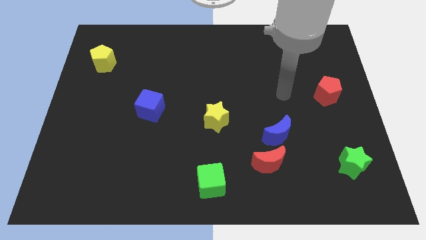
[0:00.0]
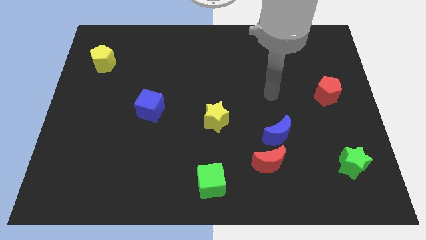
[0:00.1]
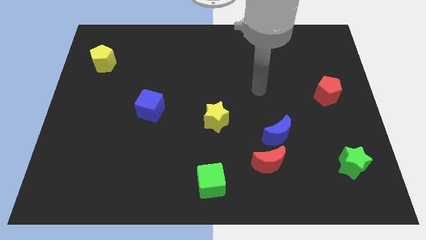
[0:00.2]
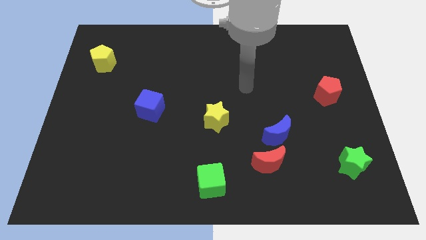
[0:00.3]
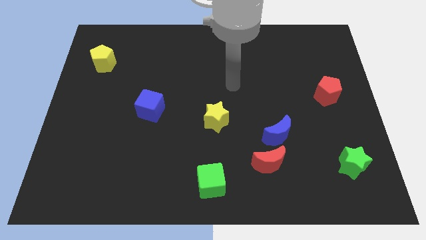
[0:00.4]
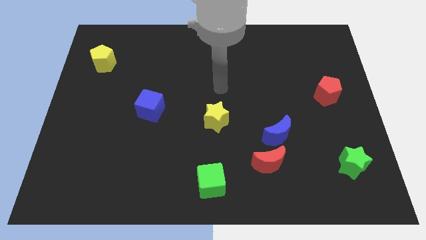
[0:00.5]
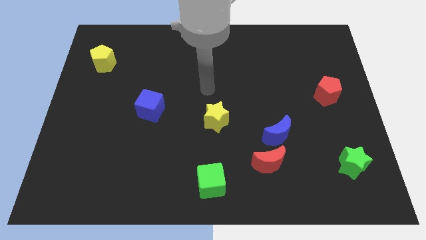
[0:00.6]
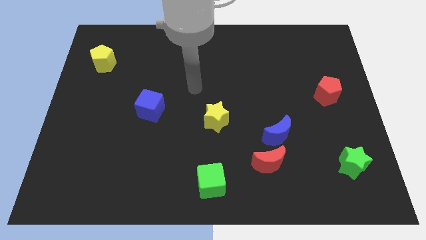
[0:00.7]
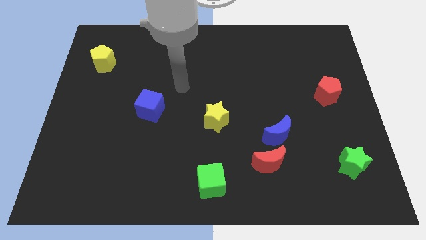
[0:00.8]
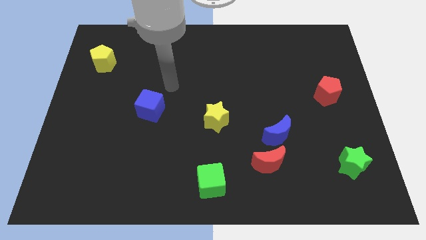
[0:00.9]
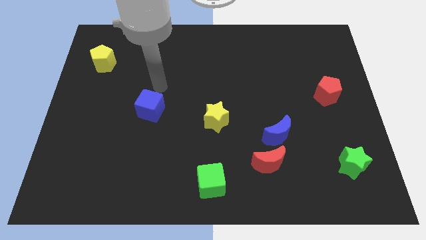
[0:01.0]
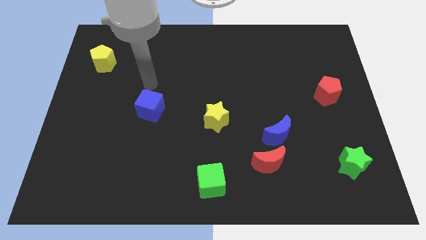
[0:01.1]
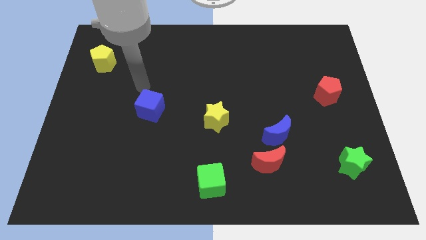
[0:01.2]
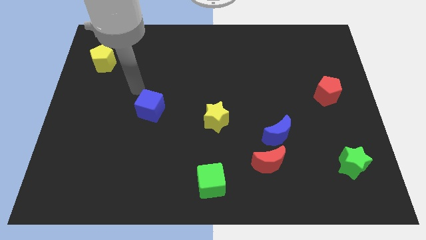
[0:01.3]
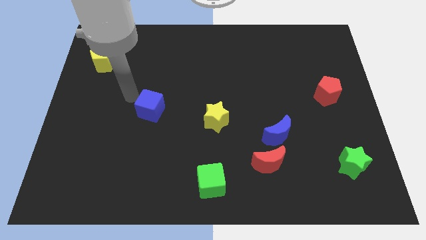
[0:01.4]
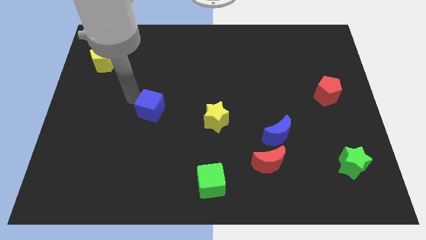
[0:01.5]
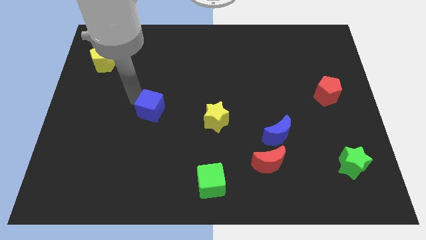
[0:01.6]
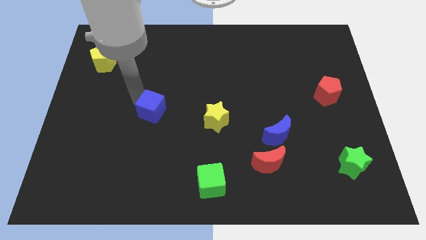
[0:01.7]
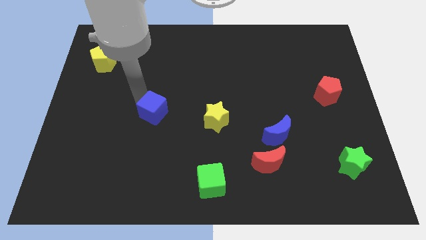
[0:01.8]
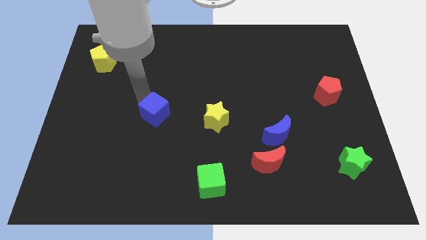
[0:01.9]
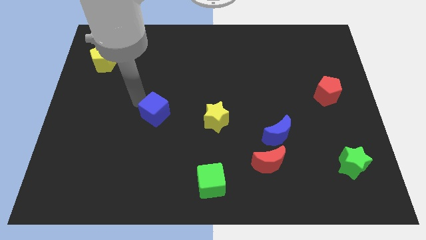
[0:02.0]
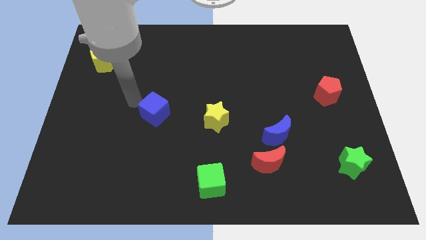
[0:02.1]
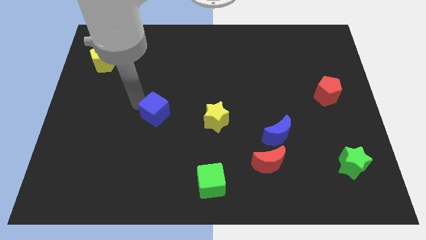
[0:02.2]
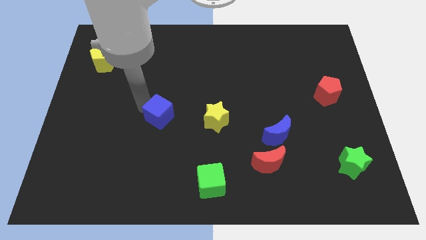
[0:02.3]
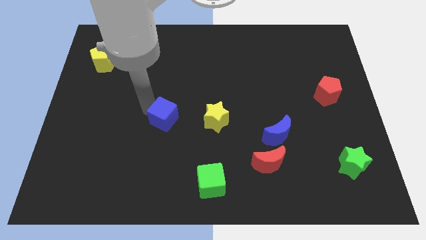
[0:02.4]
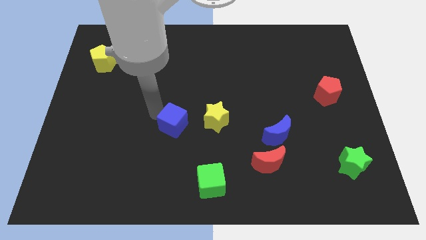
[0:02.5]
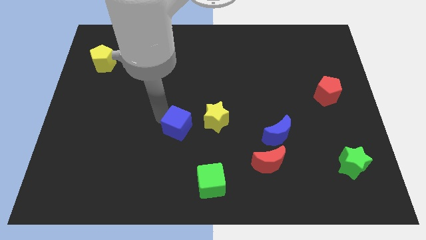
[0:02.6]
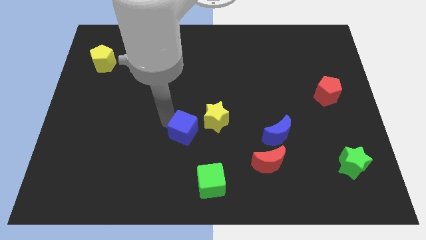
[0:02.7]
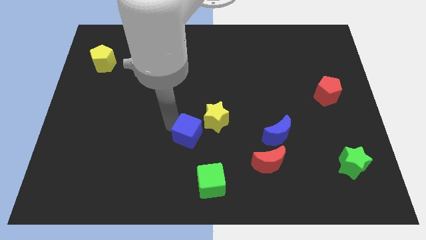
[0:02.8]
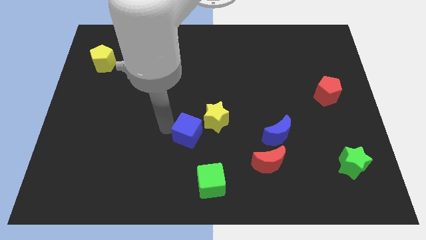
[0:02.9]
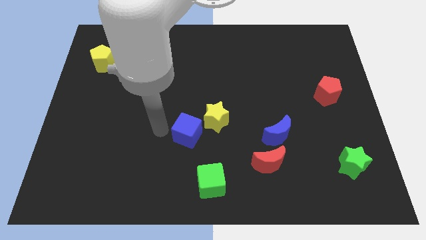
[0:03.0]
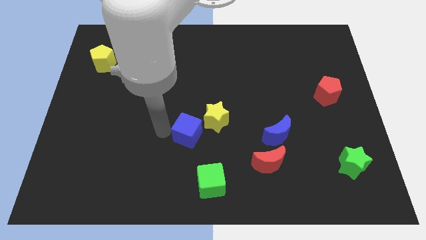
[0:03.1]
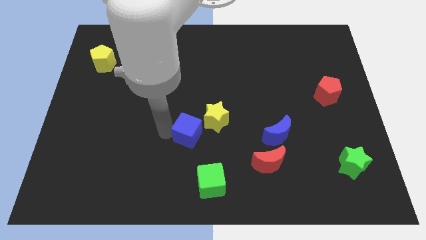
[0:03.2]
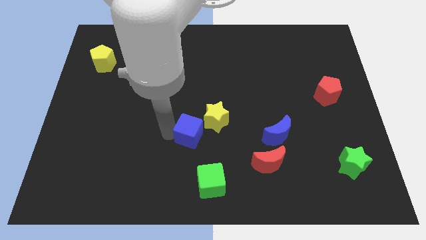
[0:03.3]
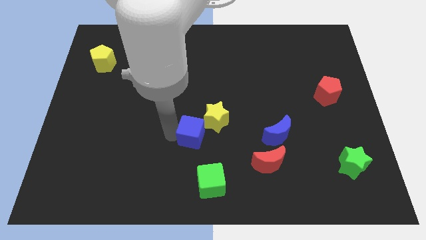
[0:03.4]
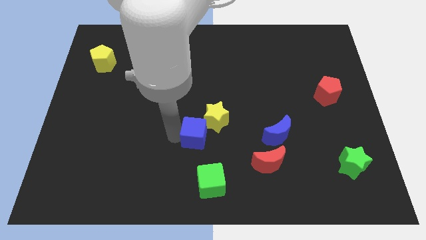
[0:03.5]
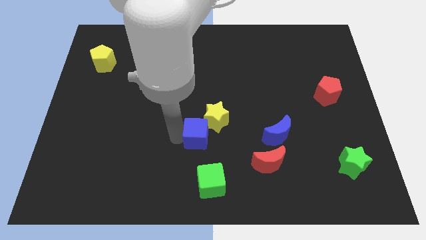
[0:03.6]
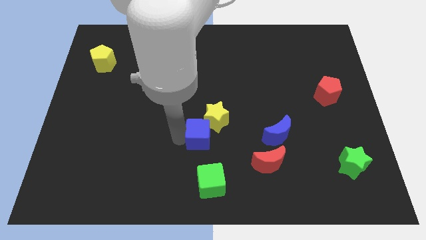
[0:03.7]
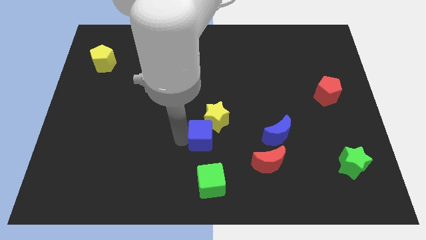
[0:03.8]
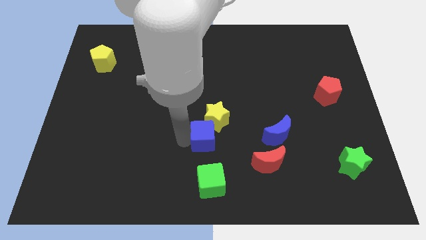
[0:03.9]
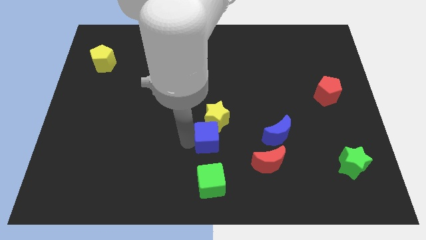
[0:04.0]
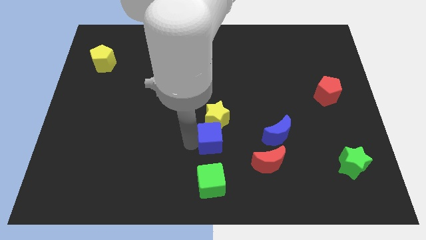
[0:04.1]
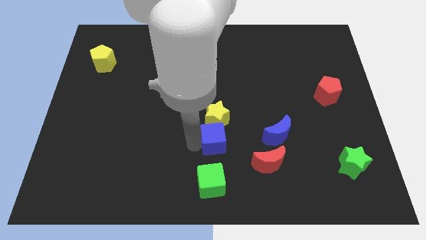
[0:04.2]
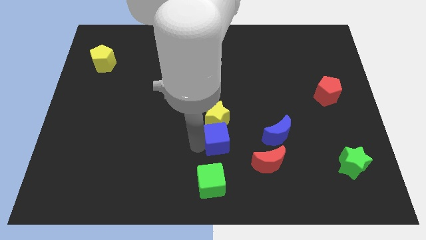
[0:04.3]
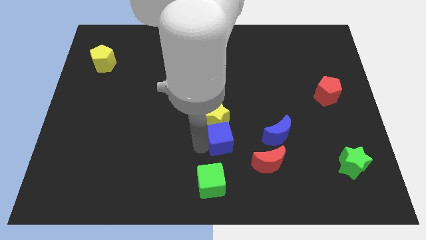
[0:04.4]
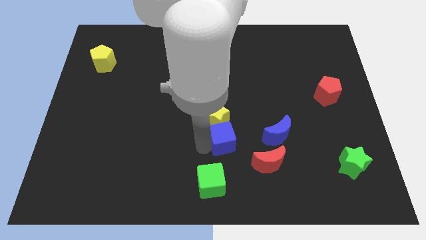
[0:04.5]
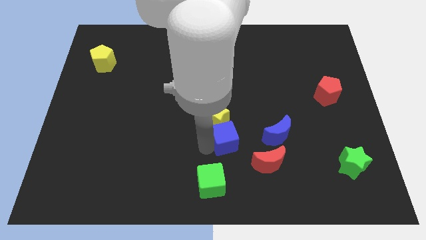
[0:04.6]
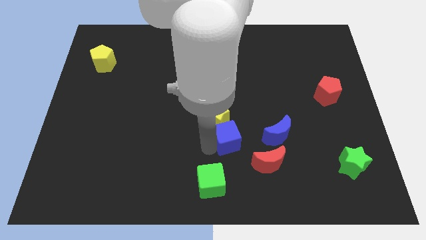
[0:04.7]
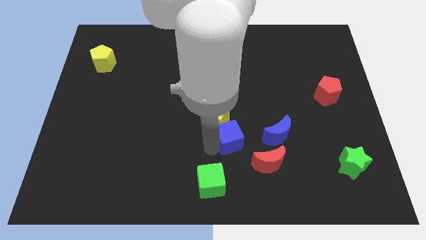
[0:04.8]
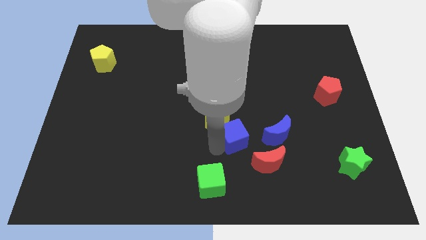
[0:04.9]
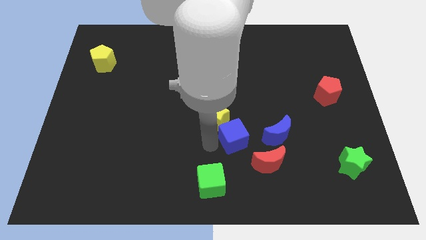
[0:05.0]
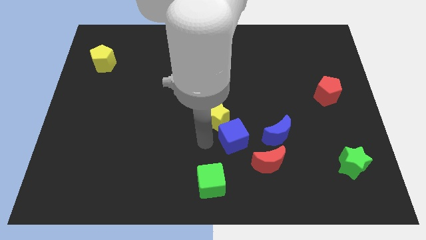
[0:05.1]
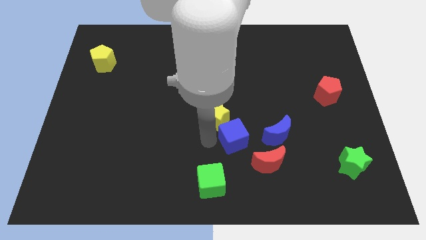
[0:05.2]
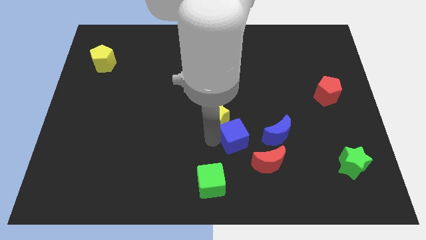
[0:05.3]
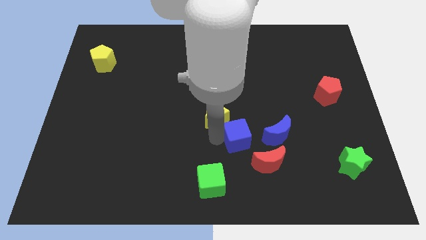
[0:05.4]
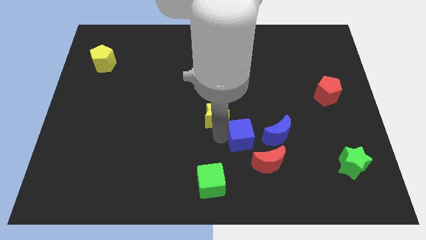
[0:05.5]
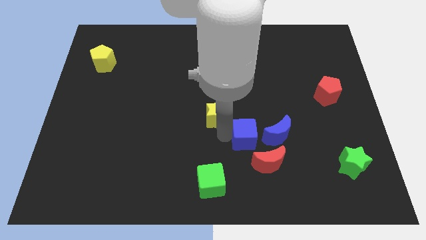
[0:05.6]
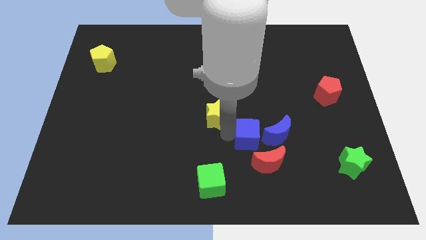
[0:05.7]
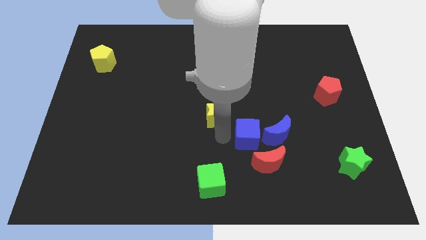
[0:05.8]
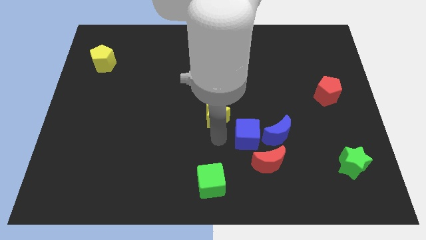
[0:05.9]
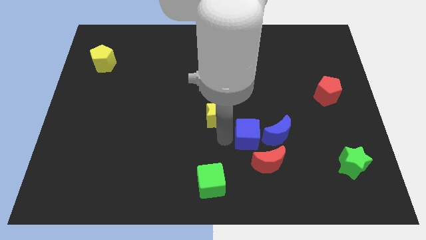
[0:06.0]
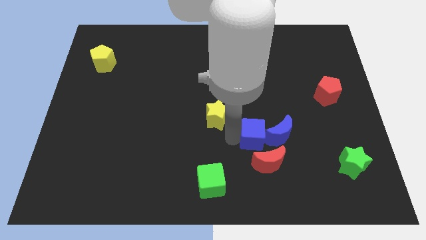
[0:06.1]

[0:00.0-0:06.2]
push the blue cube to the blue moon

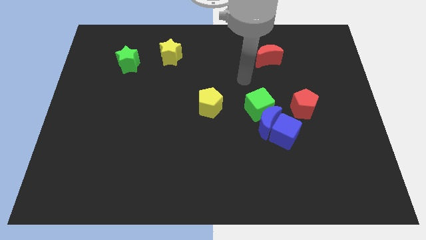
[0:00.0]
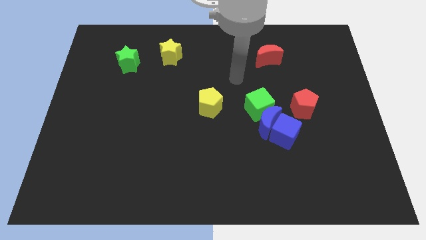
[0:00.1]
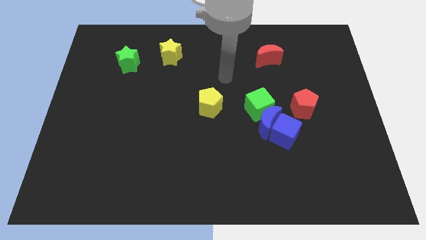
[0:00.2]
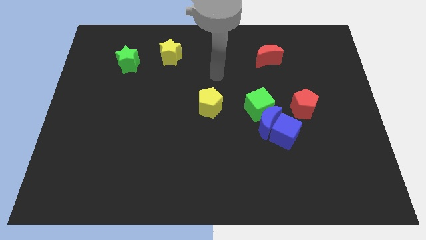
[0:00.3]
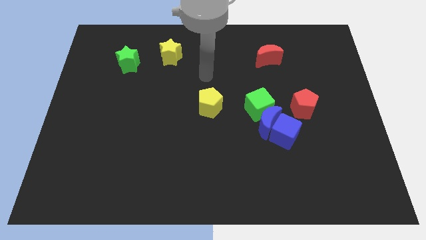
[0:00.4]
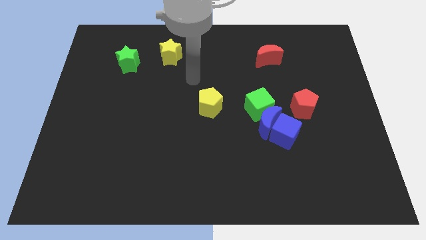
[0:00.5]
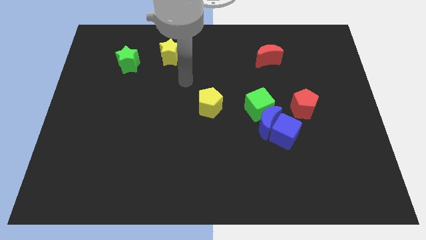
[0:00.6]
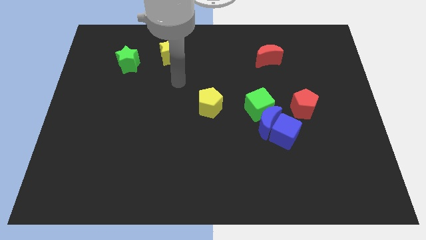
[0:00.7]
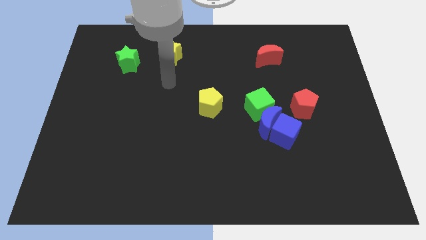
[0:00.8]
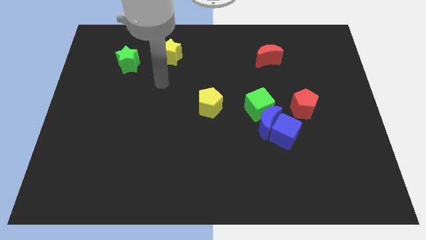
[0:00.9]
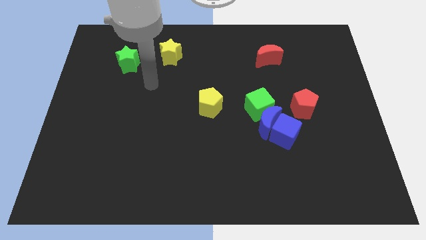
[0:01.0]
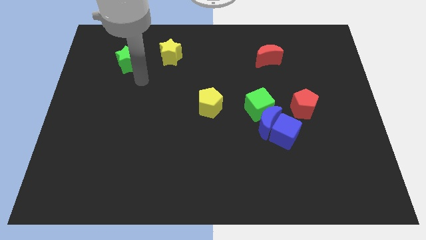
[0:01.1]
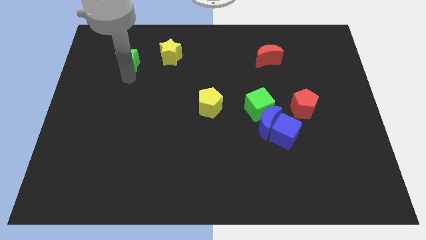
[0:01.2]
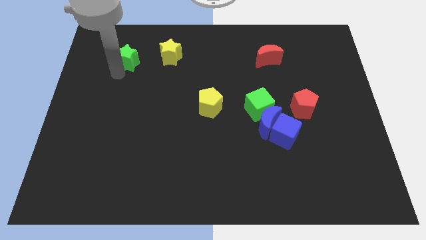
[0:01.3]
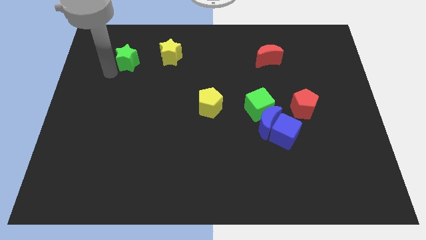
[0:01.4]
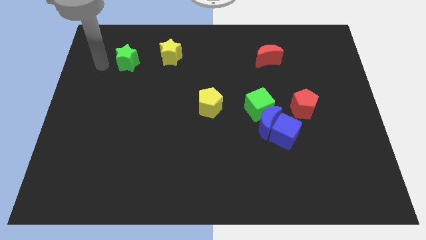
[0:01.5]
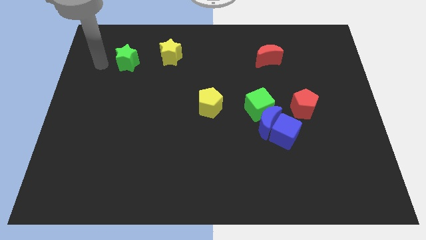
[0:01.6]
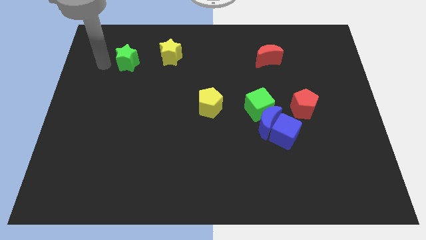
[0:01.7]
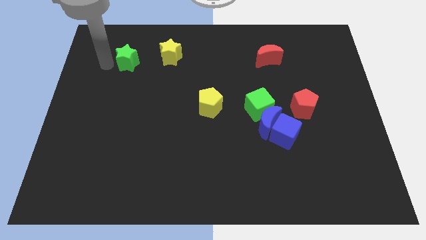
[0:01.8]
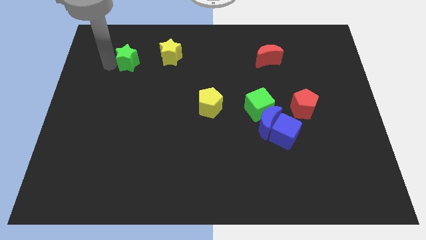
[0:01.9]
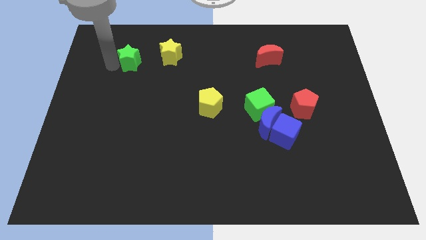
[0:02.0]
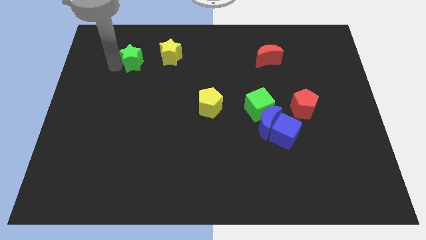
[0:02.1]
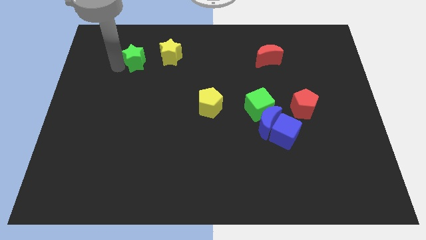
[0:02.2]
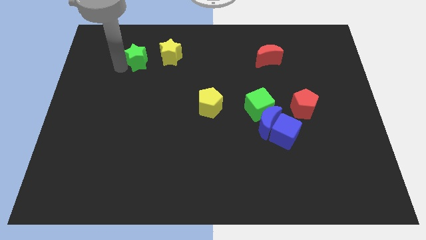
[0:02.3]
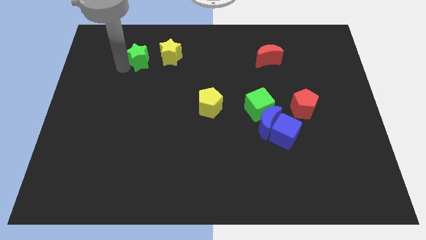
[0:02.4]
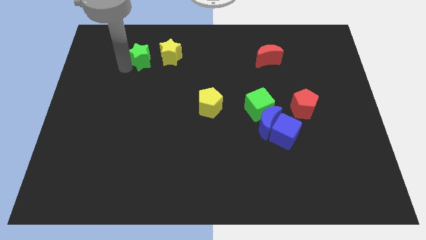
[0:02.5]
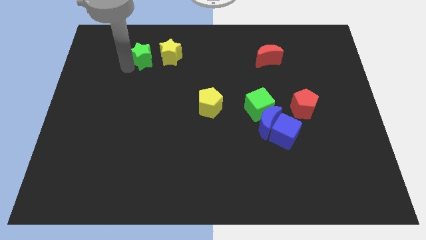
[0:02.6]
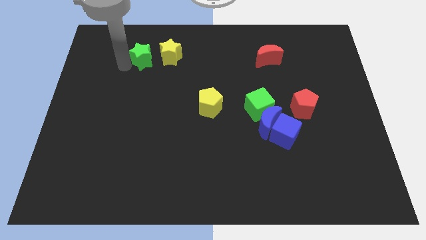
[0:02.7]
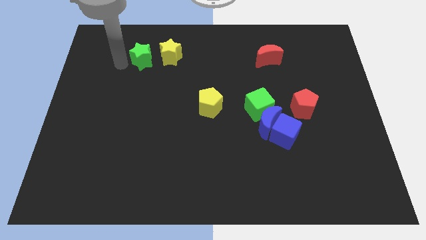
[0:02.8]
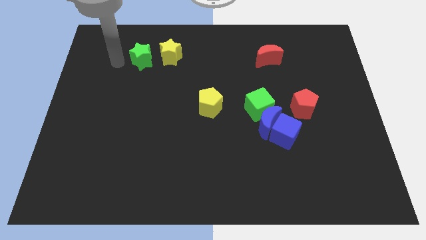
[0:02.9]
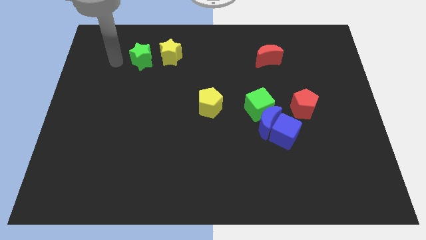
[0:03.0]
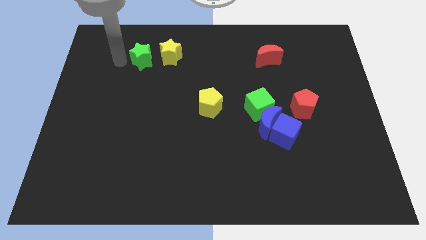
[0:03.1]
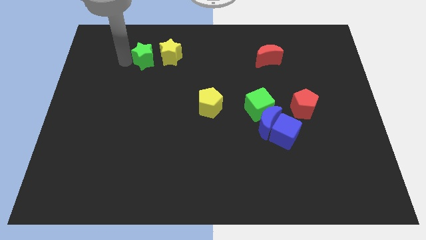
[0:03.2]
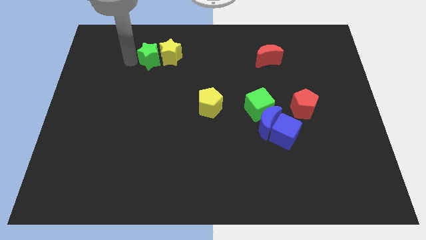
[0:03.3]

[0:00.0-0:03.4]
move the green star close to the yellow star
